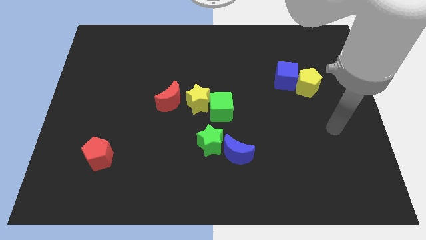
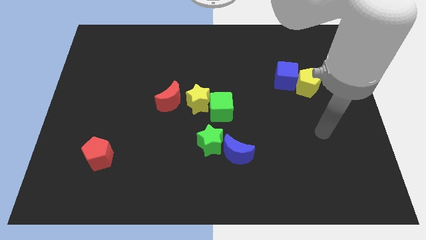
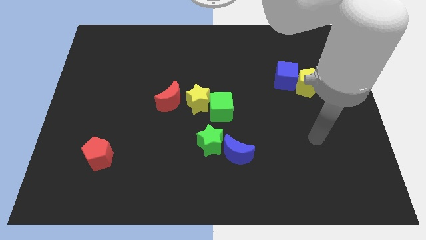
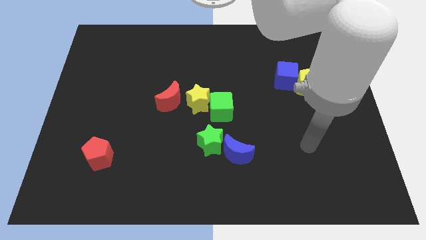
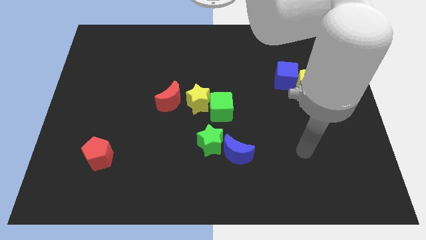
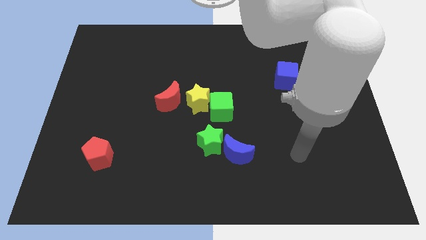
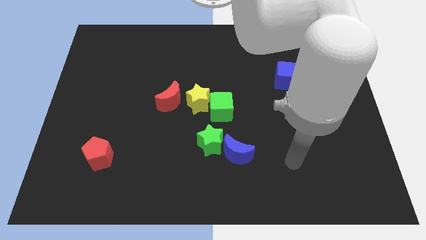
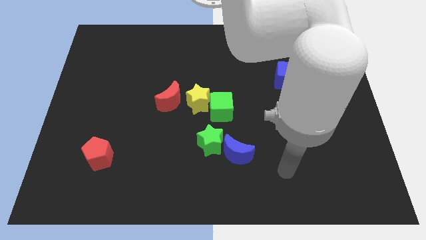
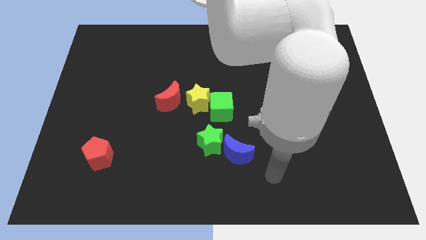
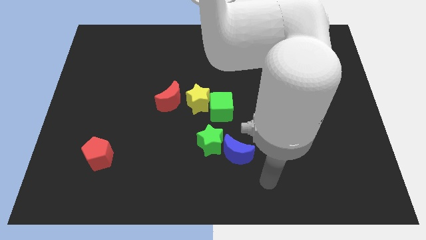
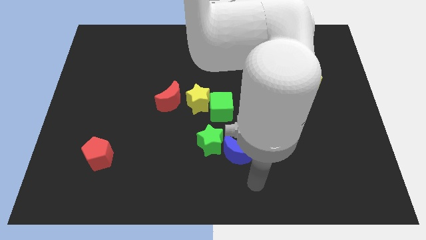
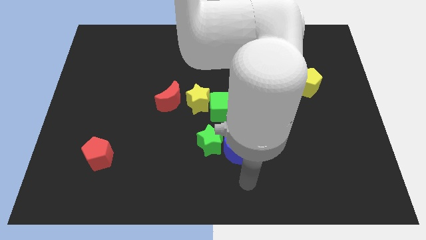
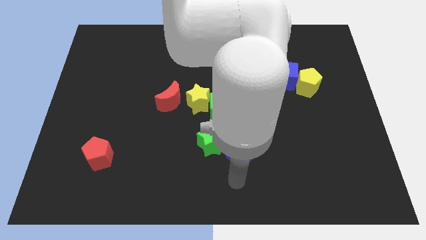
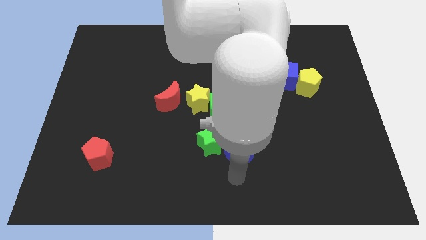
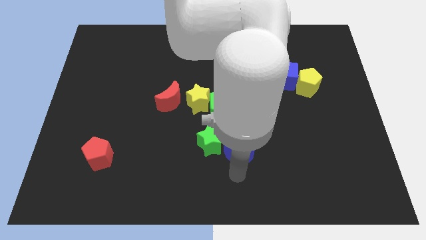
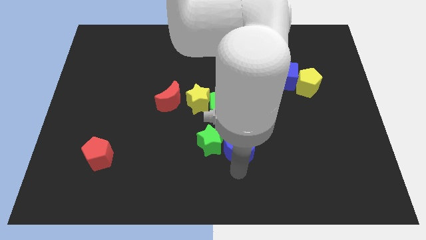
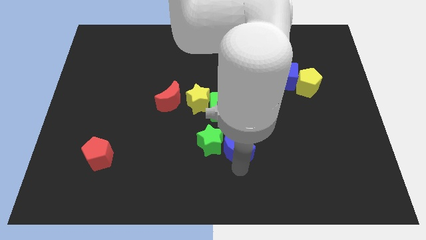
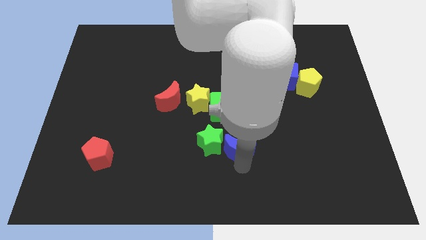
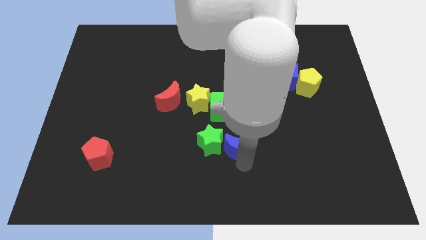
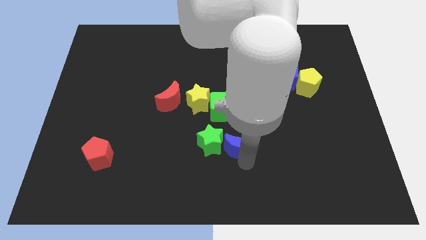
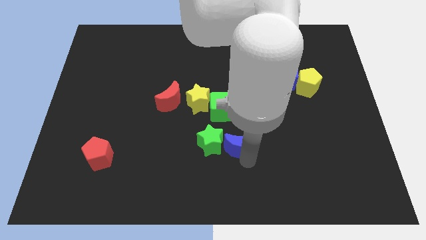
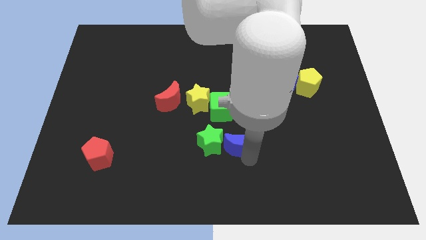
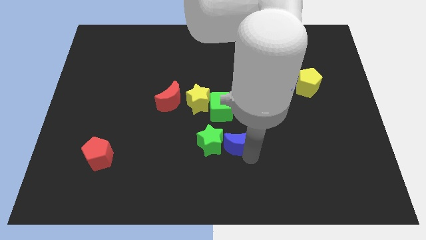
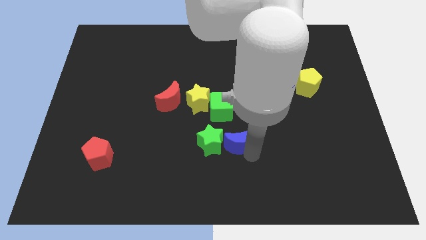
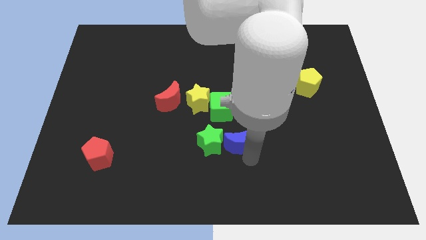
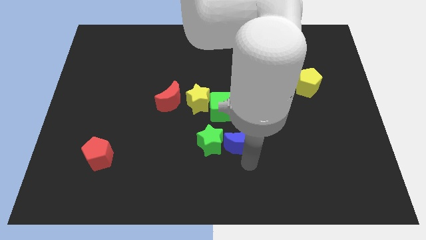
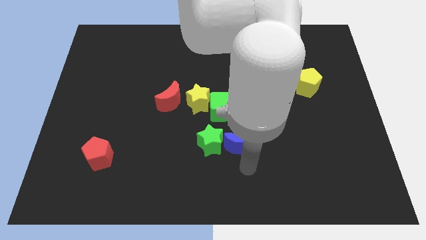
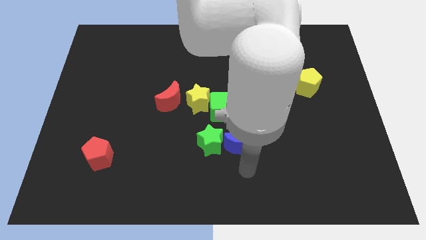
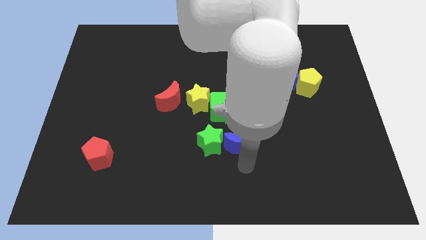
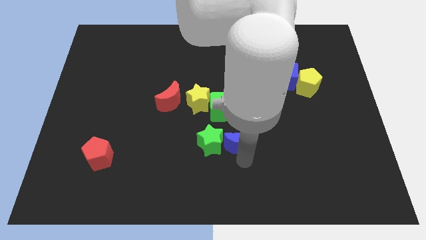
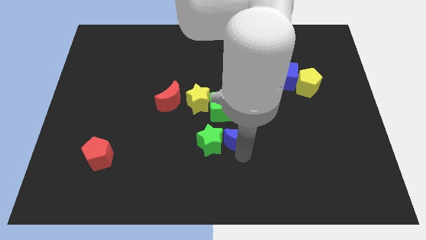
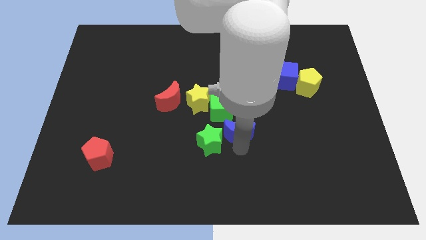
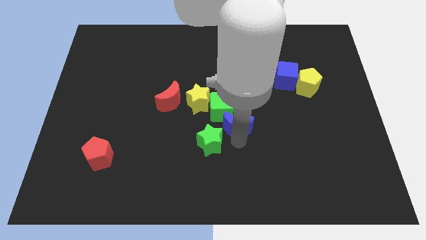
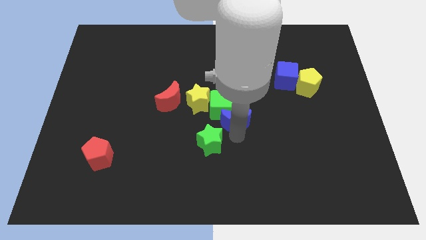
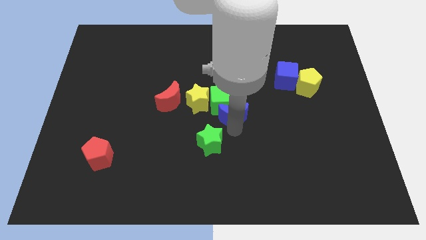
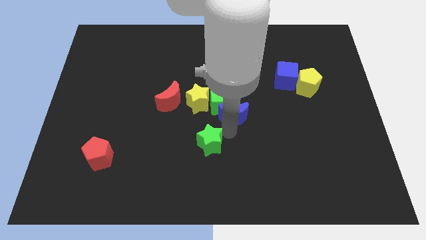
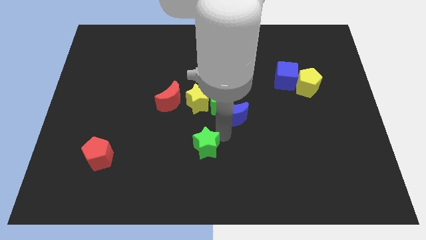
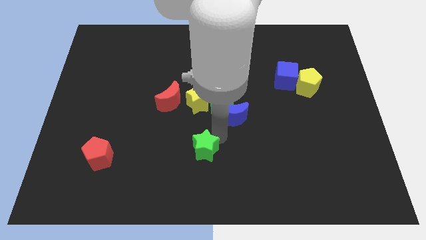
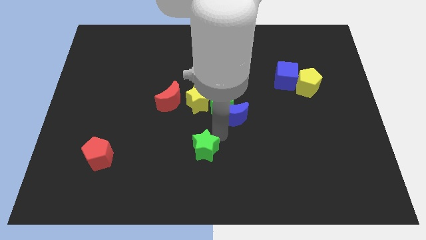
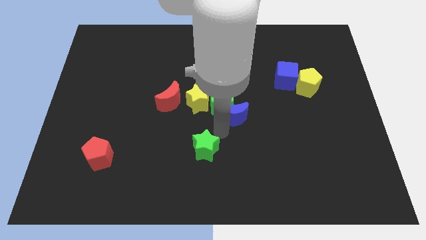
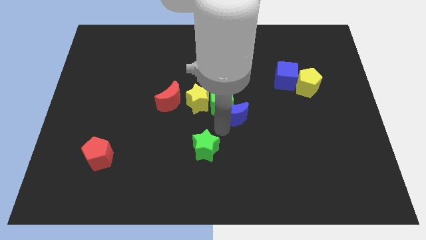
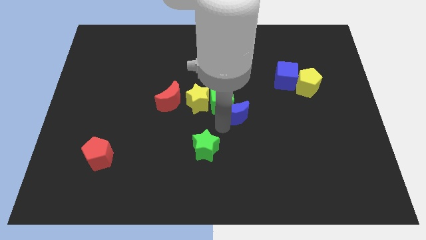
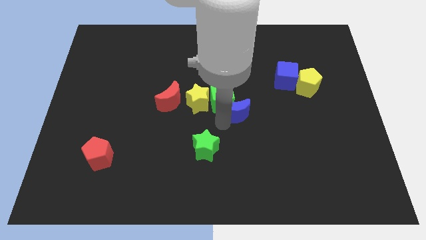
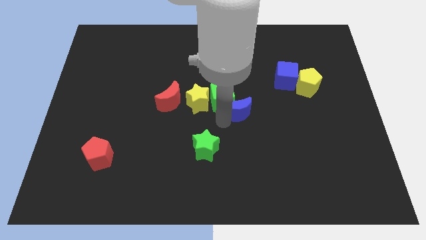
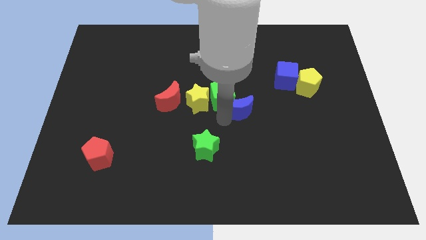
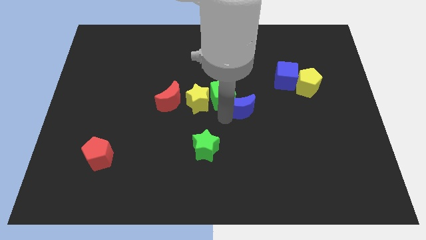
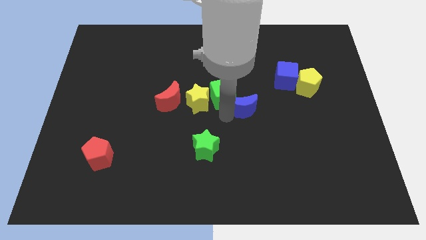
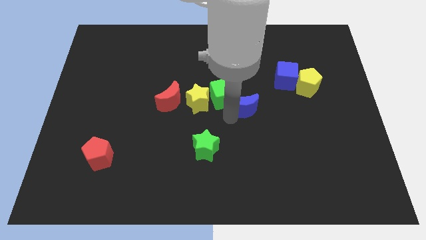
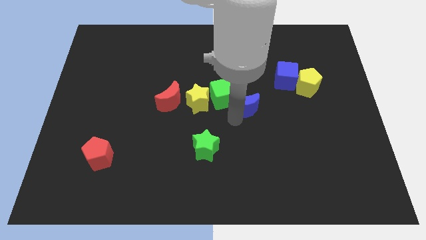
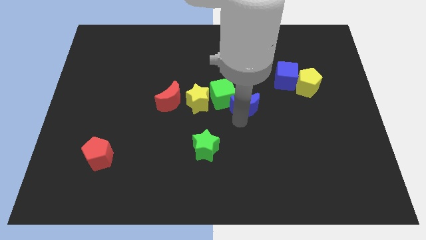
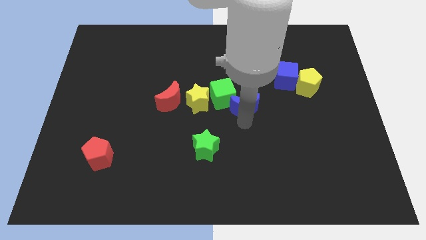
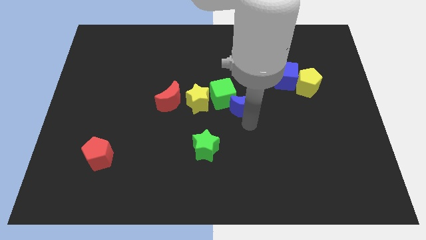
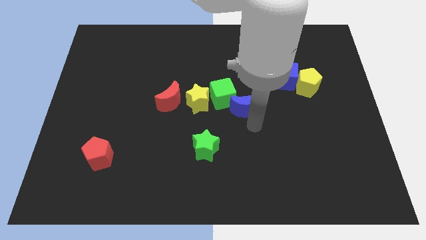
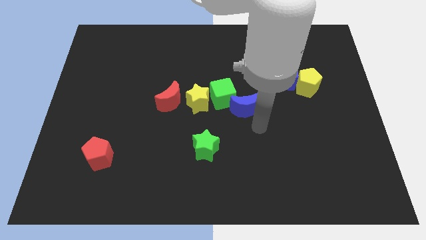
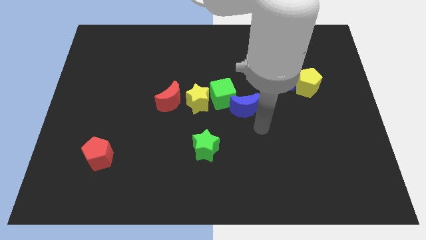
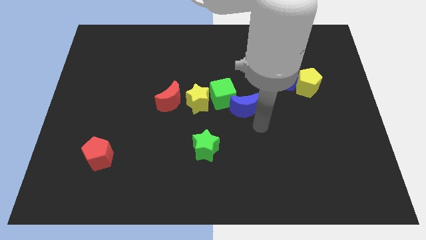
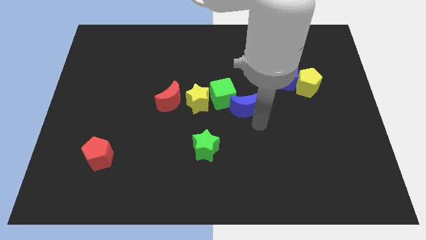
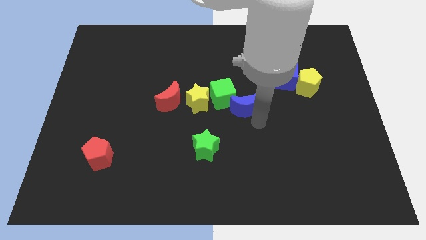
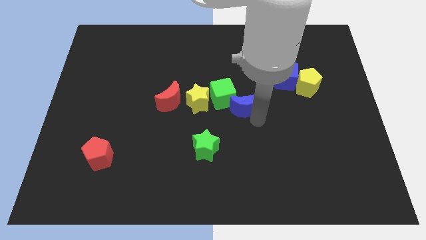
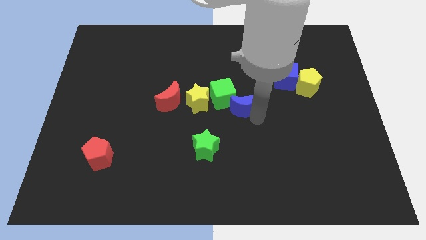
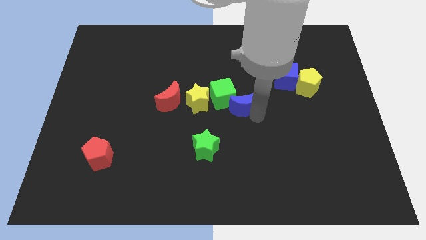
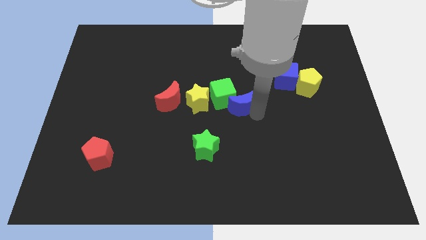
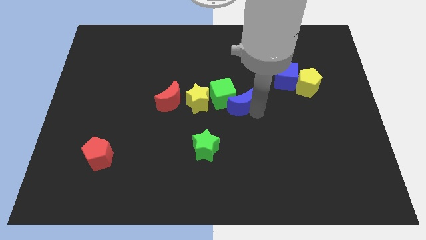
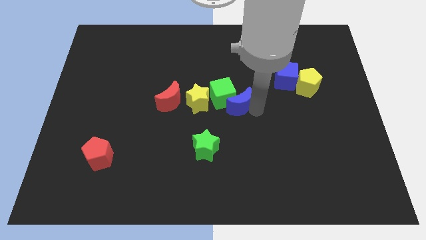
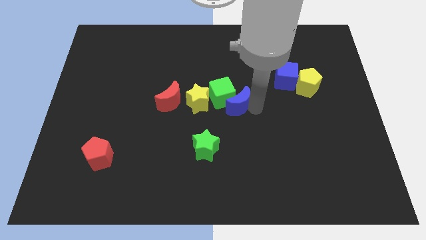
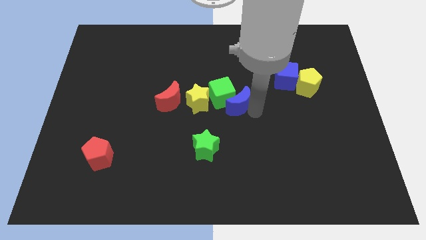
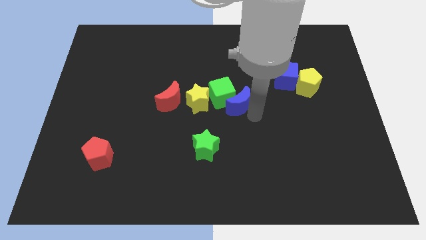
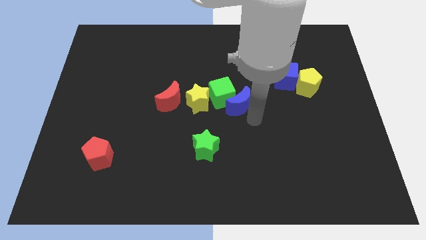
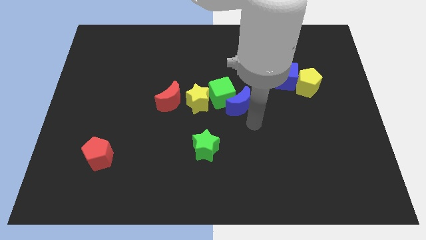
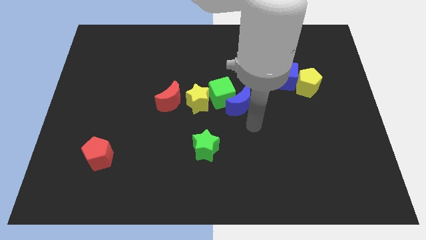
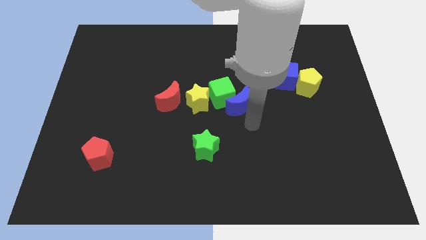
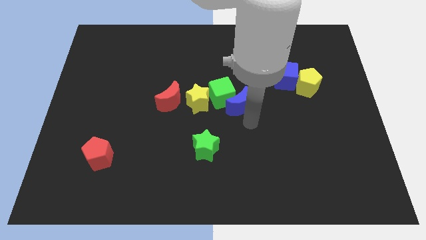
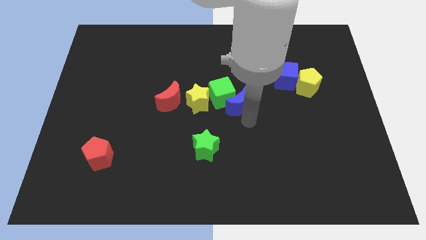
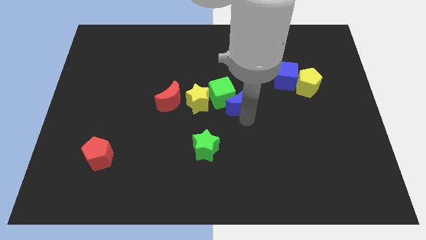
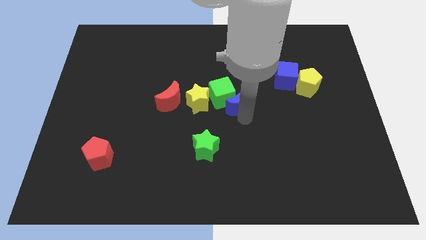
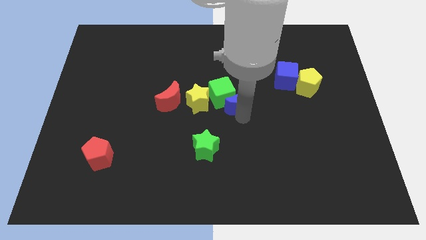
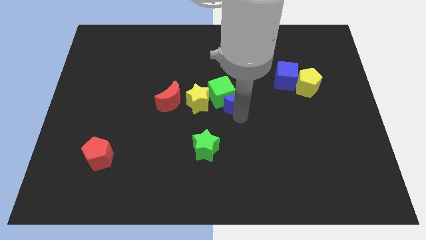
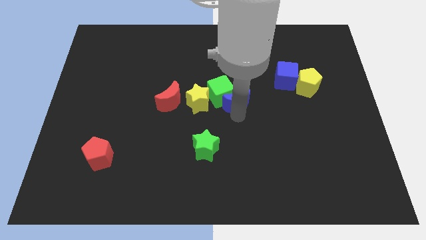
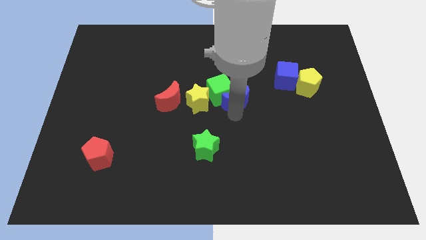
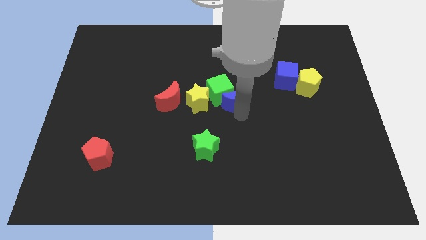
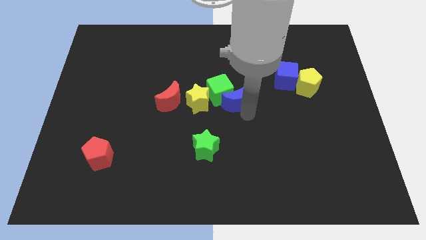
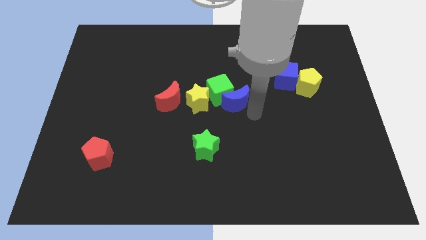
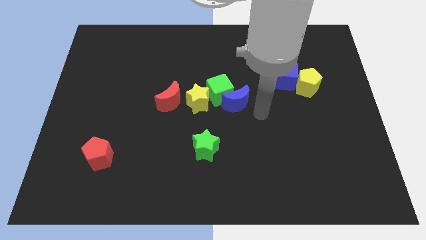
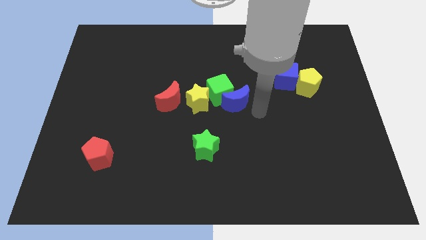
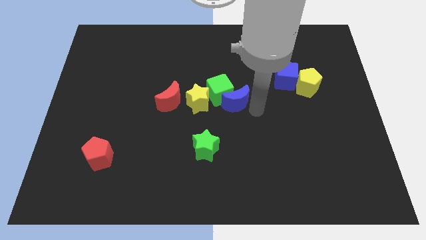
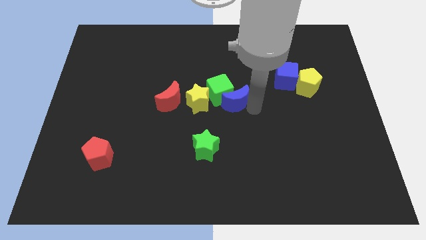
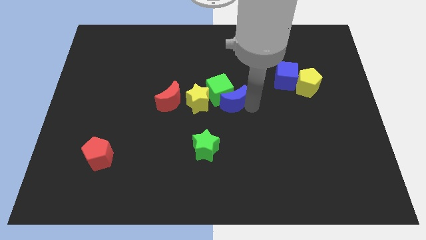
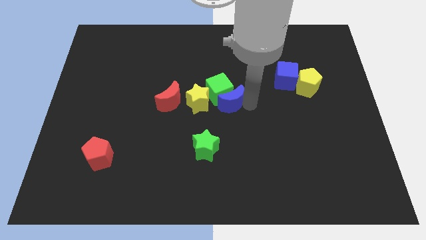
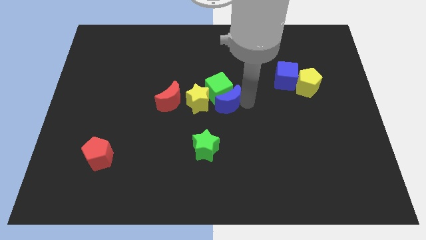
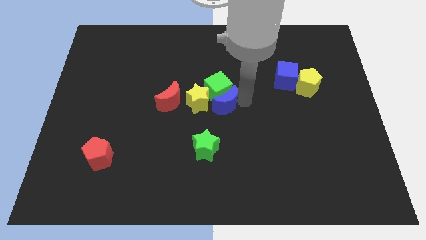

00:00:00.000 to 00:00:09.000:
put the blue moon to the top side of the green star
